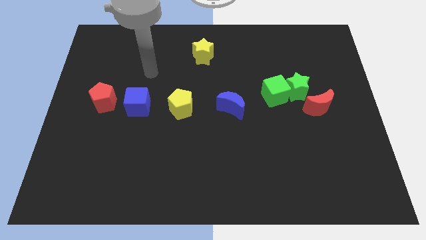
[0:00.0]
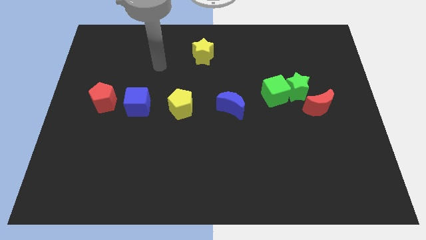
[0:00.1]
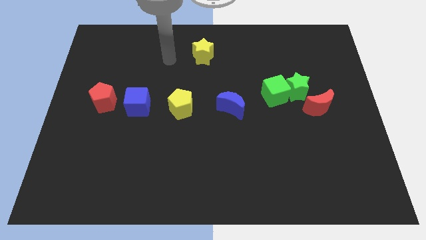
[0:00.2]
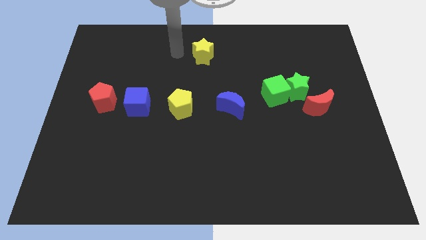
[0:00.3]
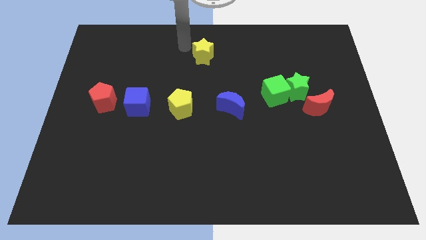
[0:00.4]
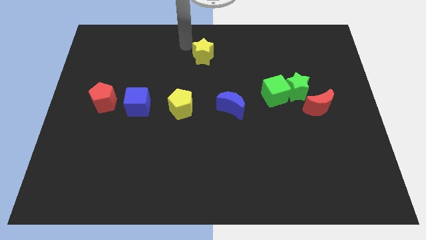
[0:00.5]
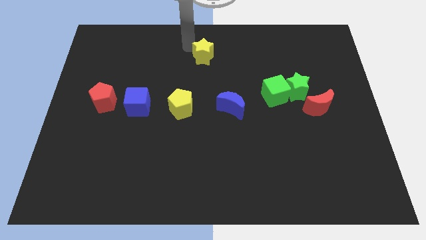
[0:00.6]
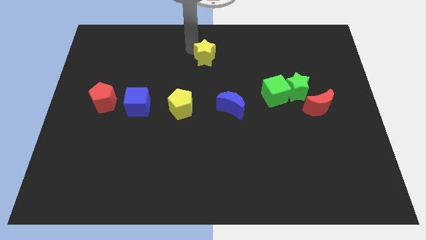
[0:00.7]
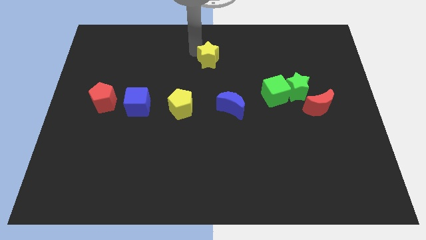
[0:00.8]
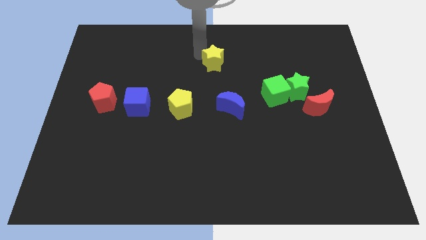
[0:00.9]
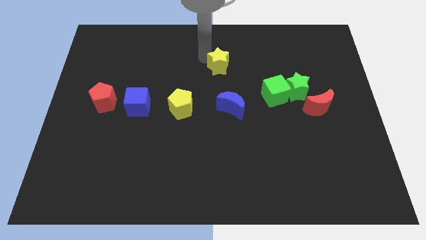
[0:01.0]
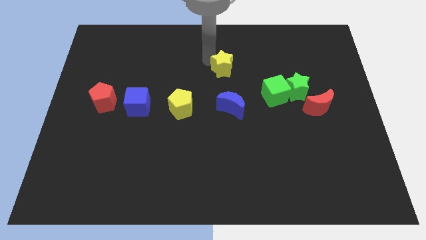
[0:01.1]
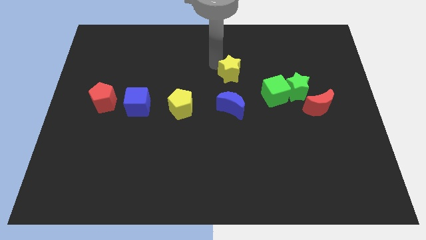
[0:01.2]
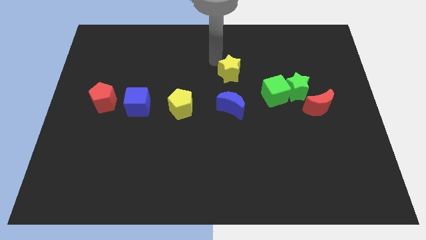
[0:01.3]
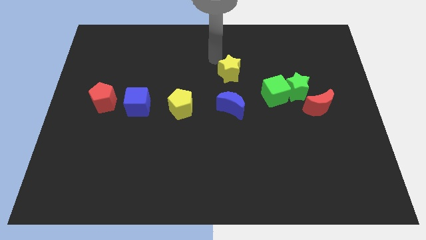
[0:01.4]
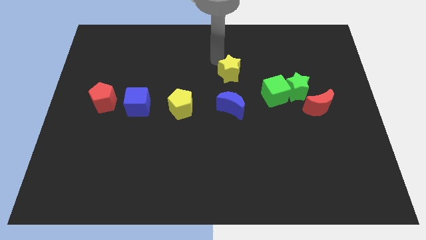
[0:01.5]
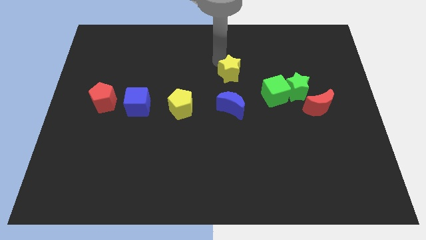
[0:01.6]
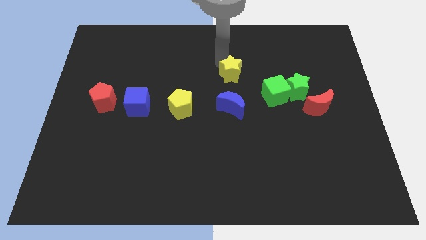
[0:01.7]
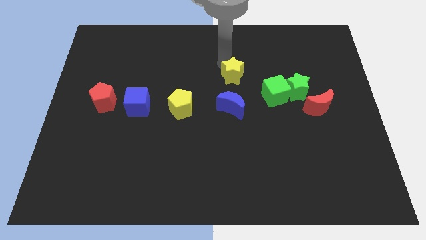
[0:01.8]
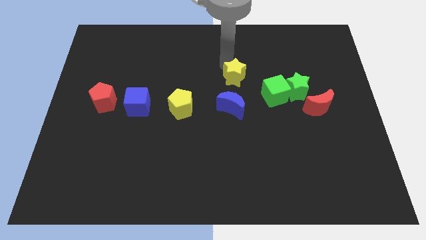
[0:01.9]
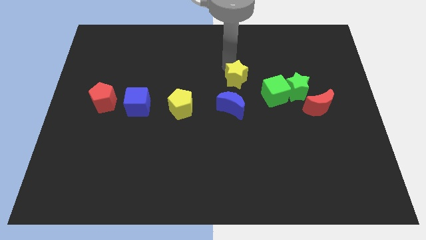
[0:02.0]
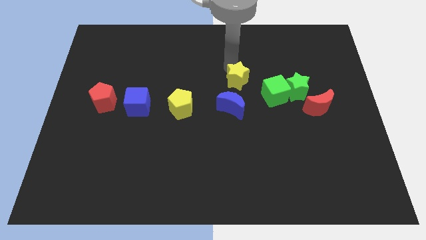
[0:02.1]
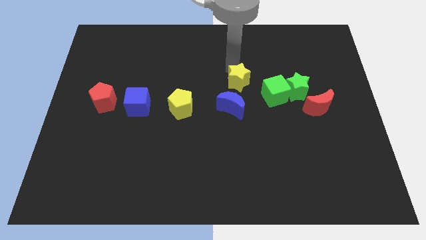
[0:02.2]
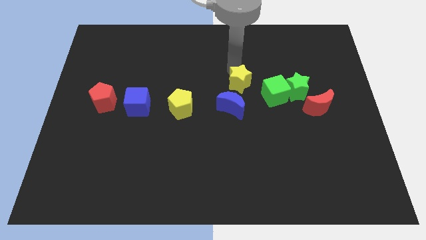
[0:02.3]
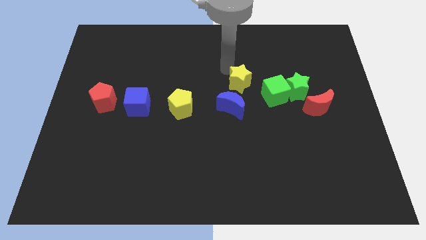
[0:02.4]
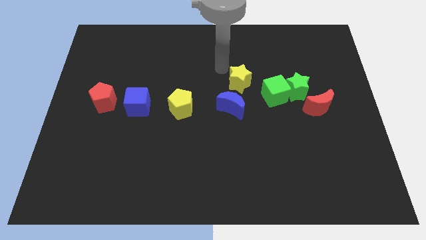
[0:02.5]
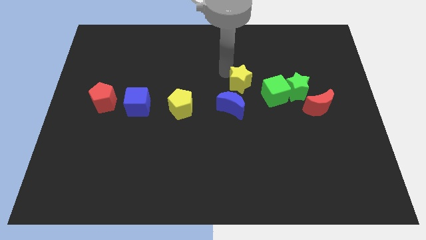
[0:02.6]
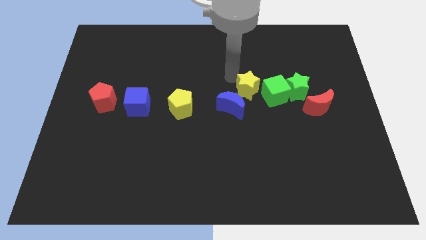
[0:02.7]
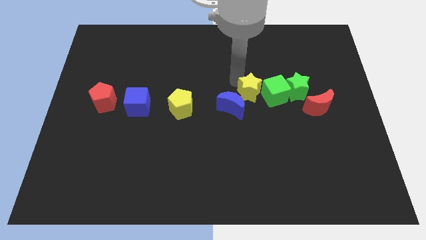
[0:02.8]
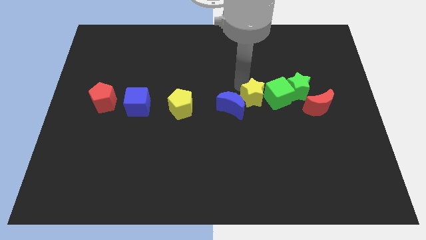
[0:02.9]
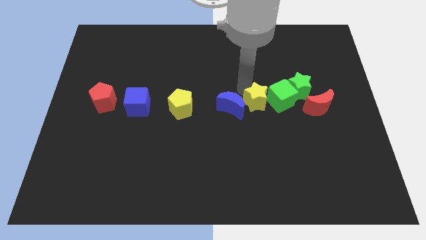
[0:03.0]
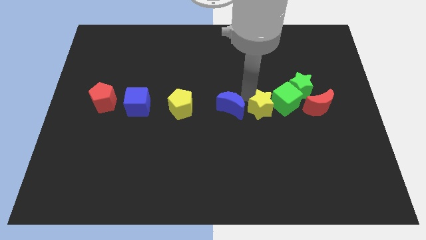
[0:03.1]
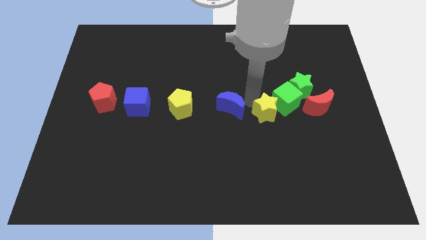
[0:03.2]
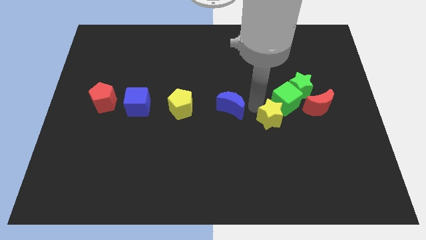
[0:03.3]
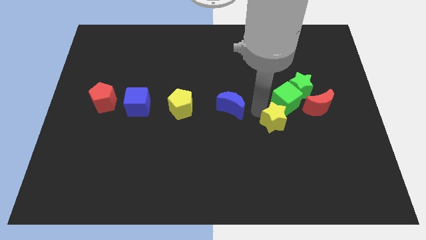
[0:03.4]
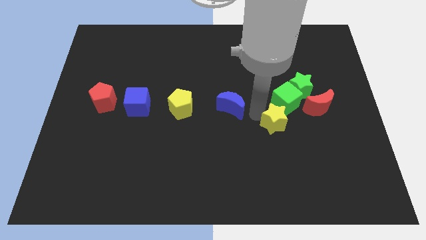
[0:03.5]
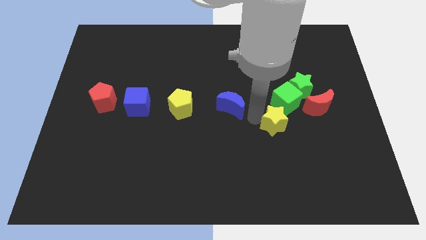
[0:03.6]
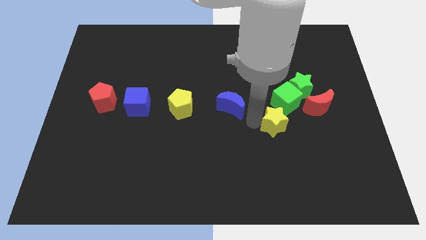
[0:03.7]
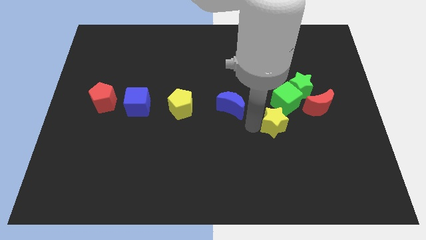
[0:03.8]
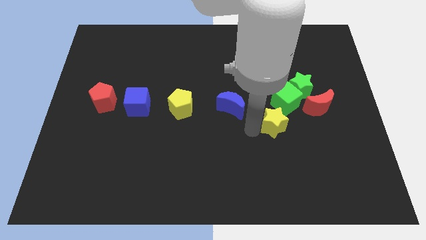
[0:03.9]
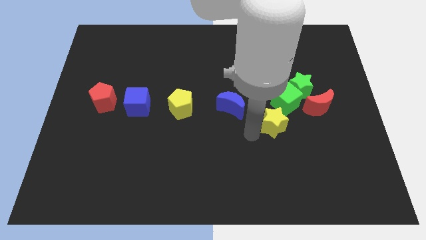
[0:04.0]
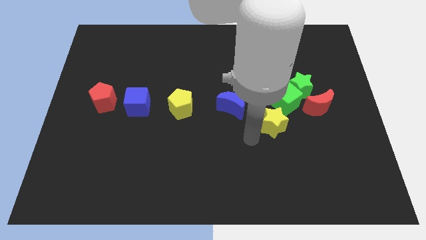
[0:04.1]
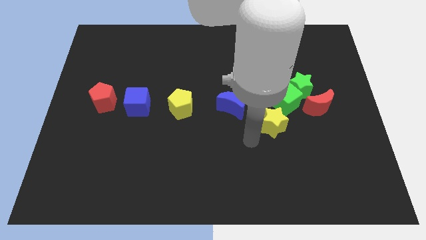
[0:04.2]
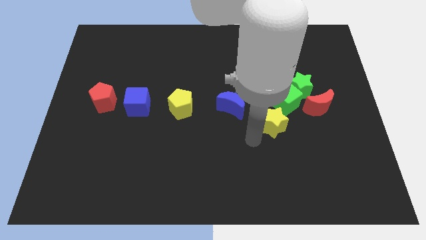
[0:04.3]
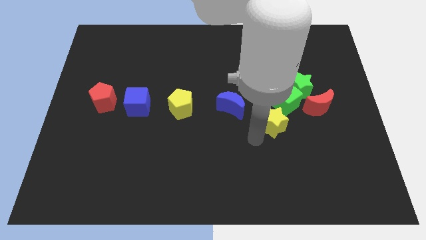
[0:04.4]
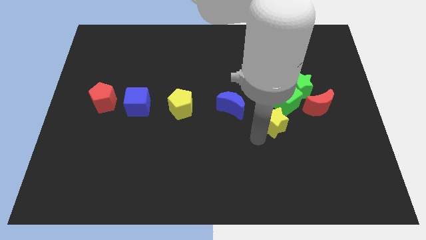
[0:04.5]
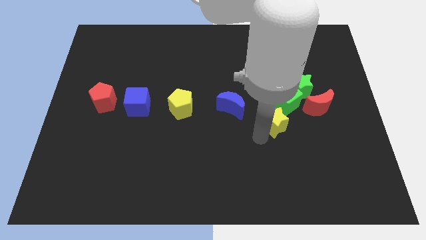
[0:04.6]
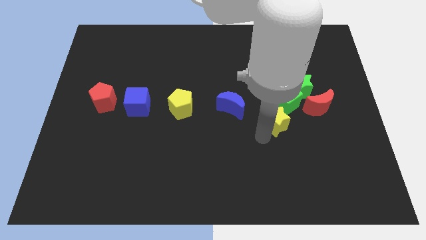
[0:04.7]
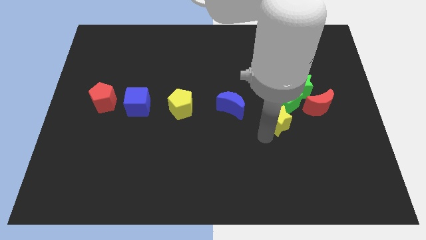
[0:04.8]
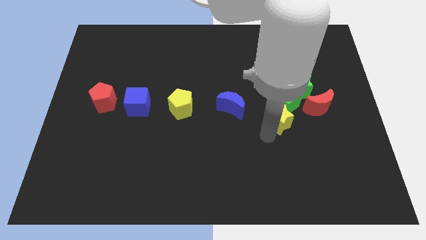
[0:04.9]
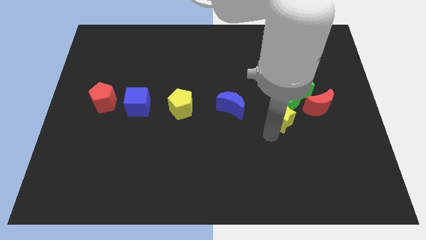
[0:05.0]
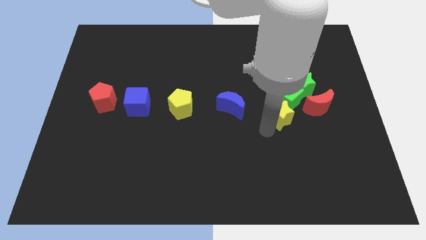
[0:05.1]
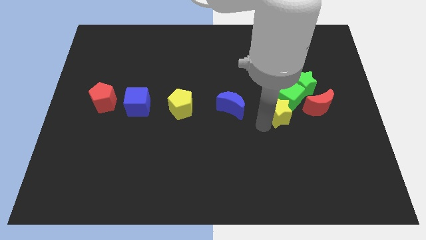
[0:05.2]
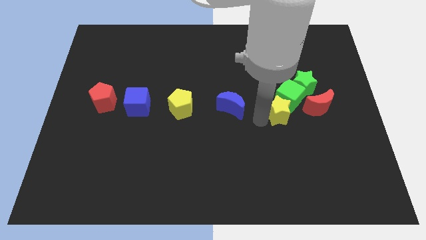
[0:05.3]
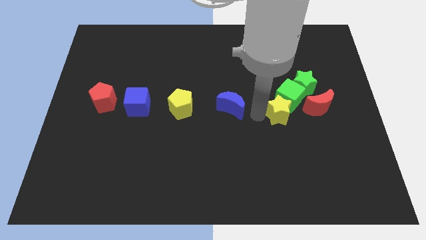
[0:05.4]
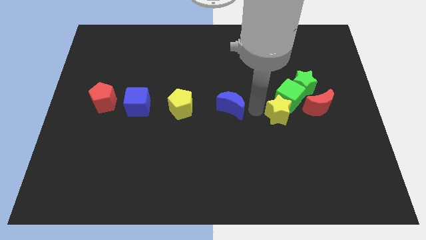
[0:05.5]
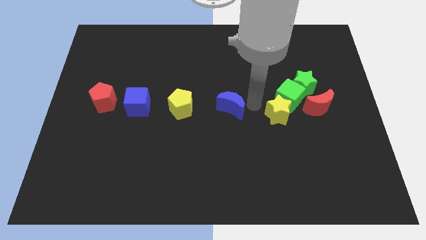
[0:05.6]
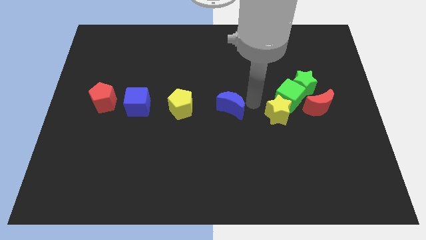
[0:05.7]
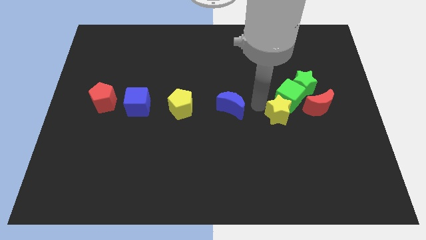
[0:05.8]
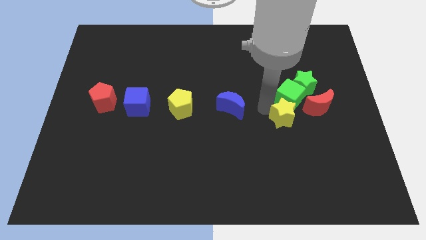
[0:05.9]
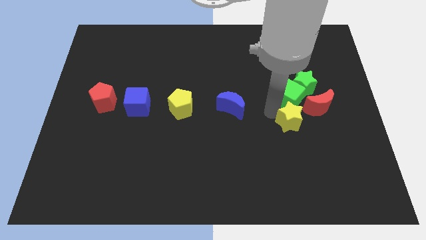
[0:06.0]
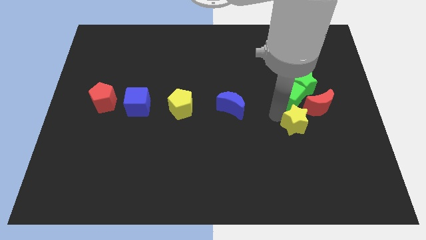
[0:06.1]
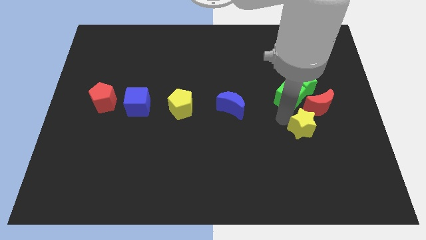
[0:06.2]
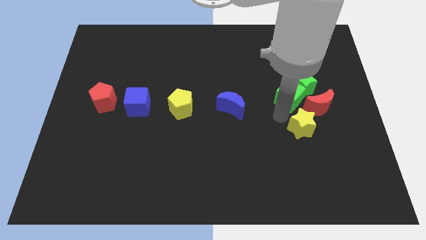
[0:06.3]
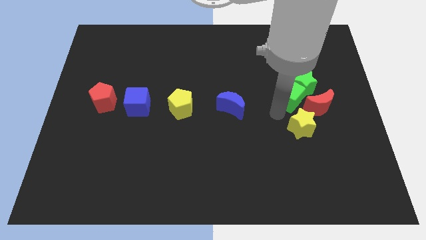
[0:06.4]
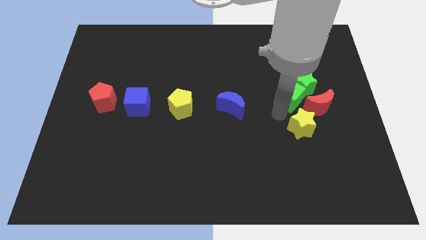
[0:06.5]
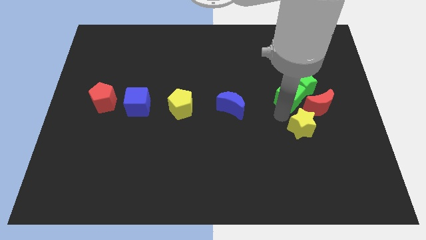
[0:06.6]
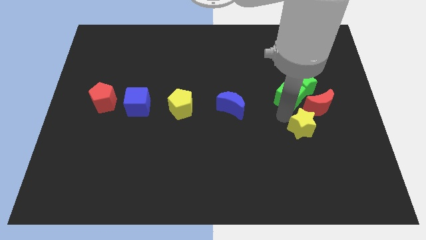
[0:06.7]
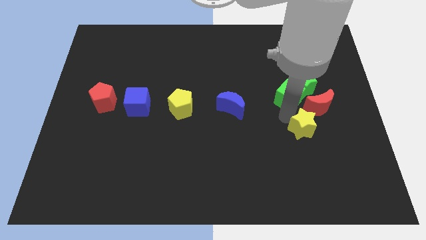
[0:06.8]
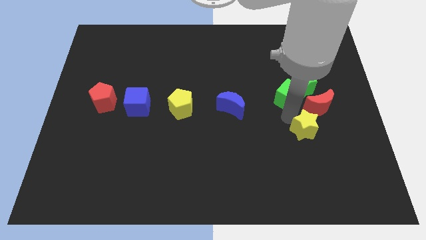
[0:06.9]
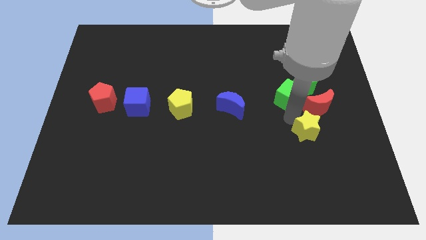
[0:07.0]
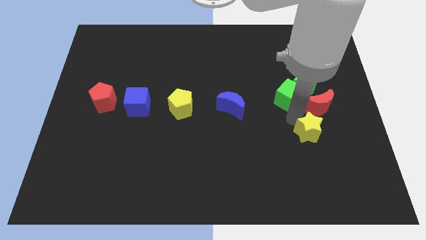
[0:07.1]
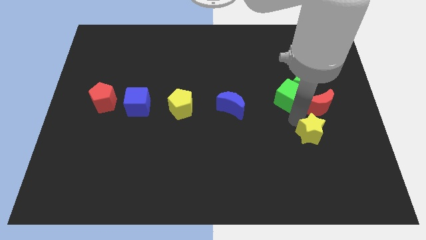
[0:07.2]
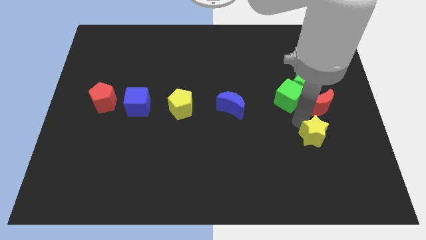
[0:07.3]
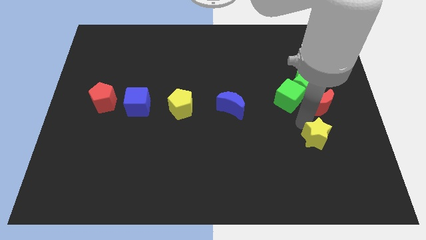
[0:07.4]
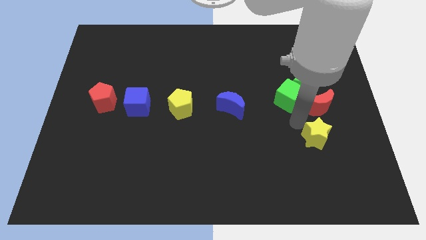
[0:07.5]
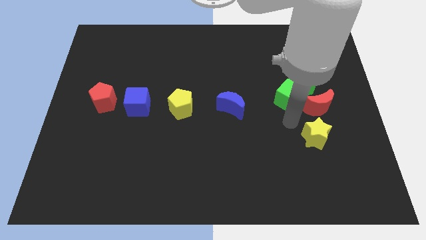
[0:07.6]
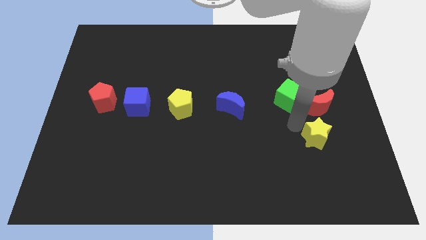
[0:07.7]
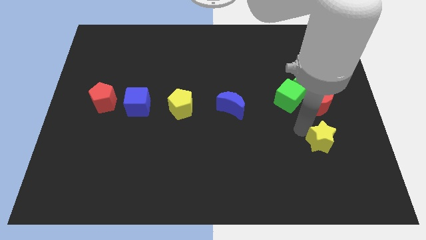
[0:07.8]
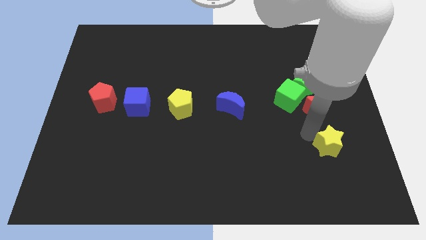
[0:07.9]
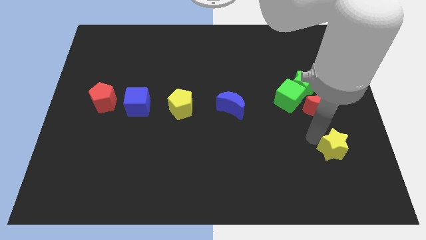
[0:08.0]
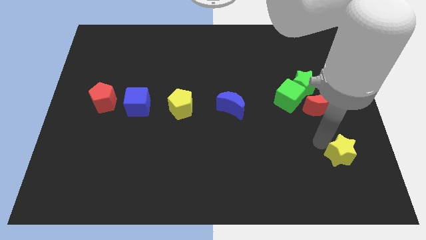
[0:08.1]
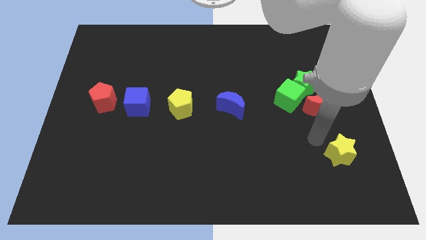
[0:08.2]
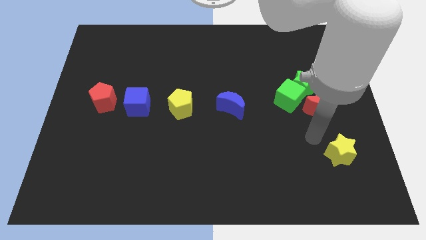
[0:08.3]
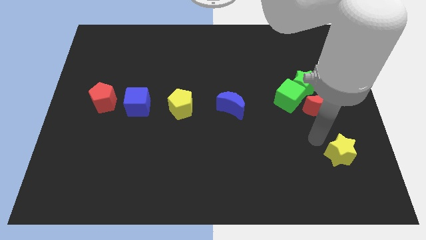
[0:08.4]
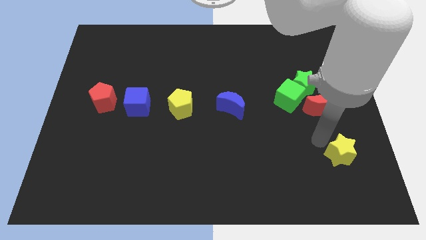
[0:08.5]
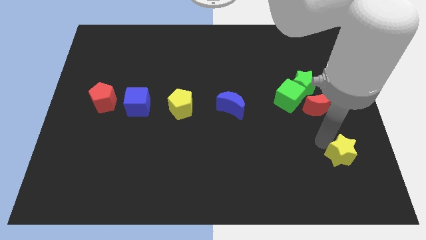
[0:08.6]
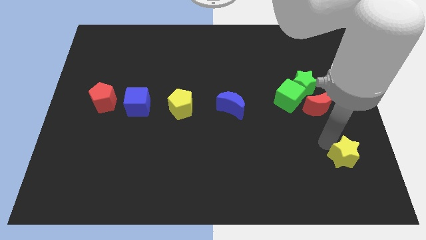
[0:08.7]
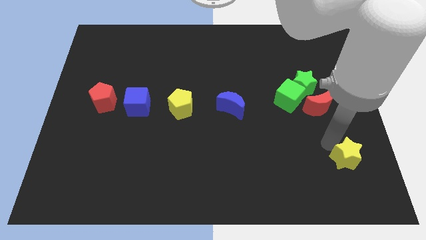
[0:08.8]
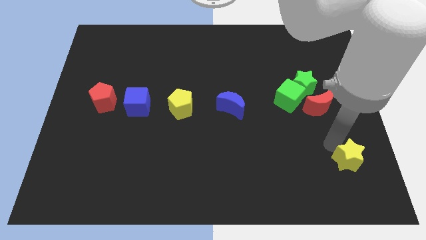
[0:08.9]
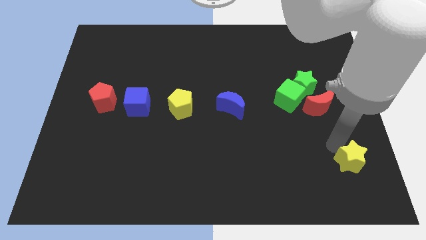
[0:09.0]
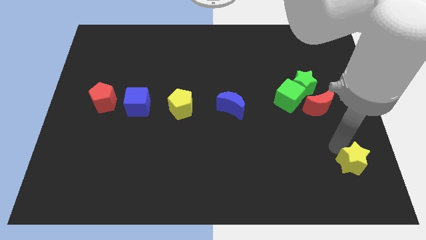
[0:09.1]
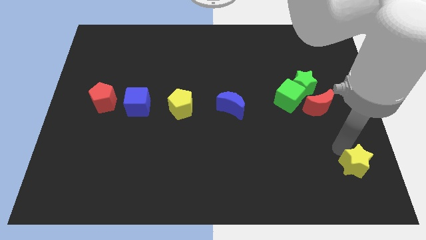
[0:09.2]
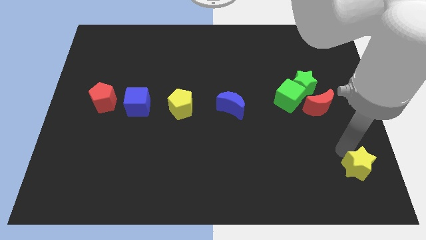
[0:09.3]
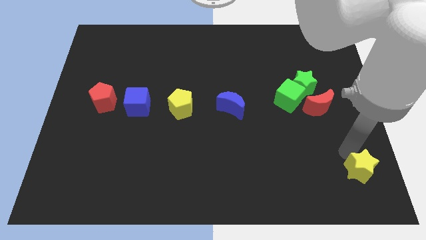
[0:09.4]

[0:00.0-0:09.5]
slide the yellow star to the bottom right
